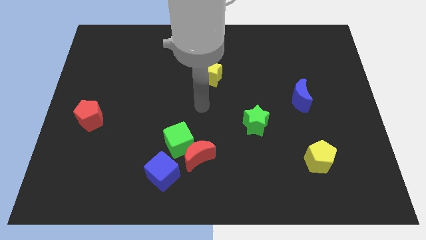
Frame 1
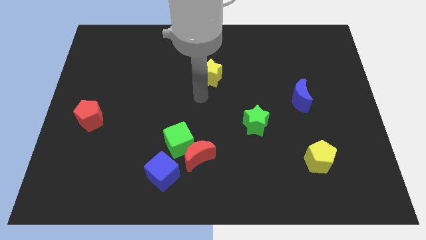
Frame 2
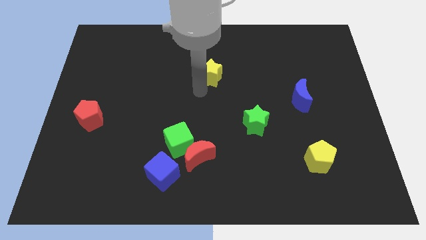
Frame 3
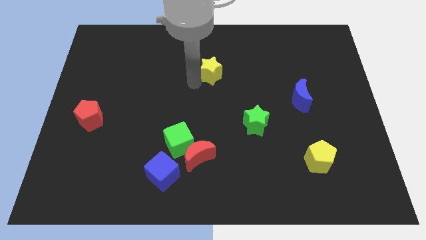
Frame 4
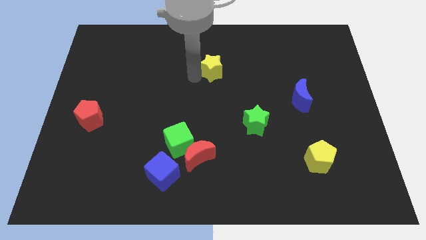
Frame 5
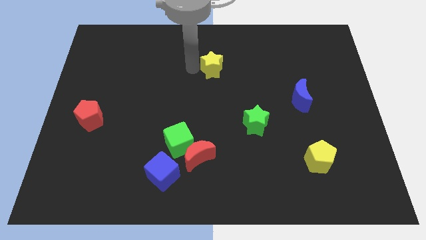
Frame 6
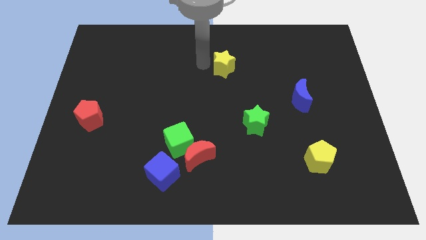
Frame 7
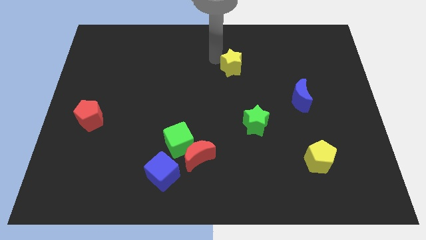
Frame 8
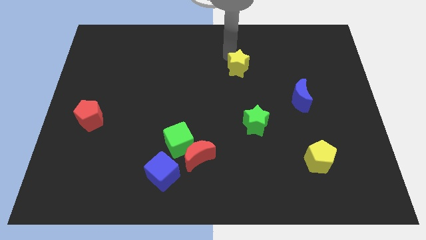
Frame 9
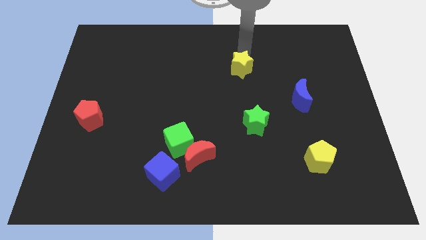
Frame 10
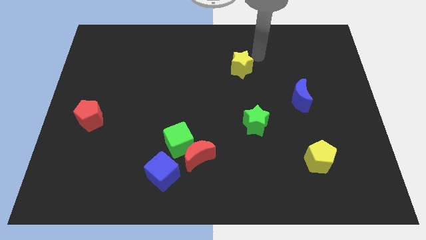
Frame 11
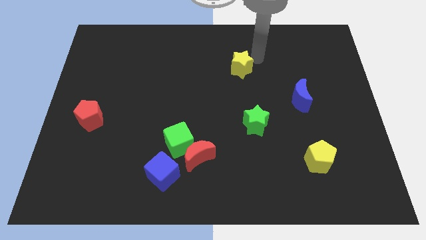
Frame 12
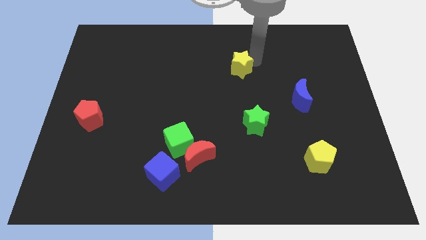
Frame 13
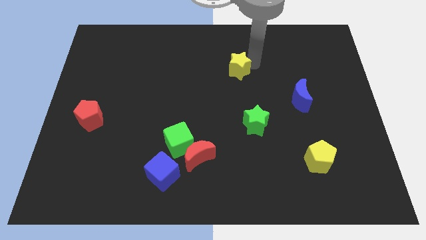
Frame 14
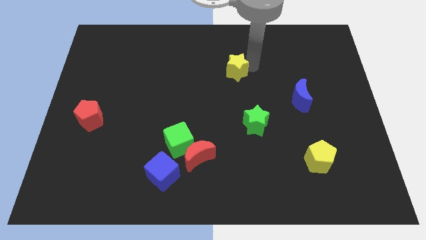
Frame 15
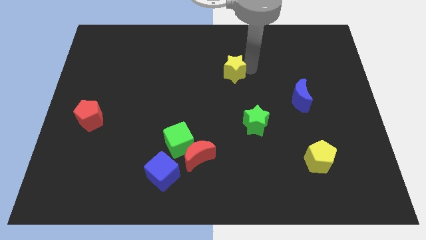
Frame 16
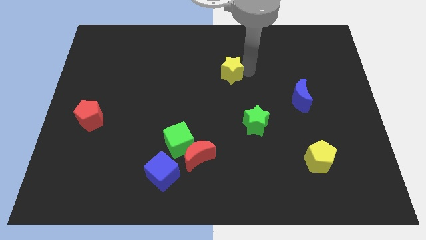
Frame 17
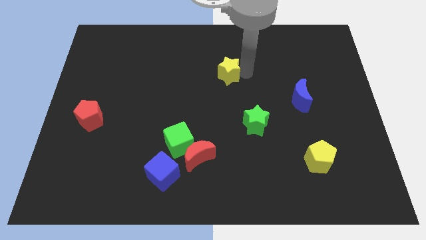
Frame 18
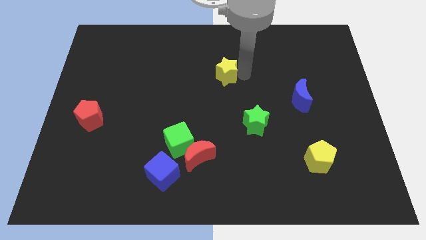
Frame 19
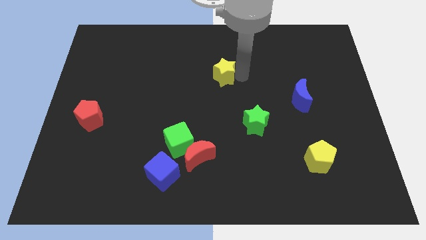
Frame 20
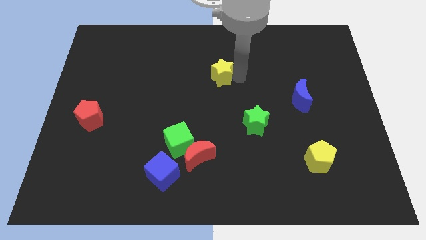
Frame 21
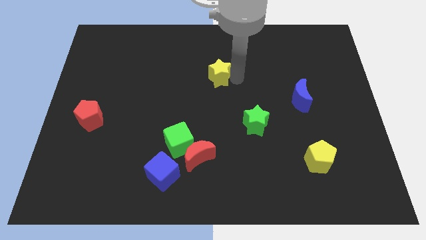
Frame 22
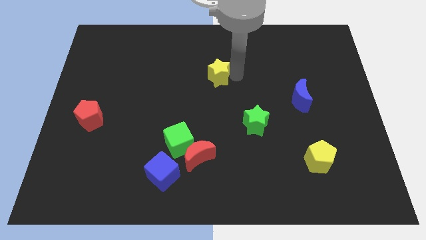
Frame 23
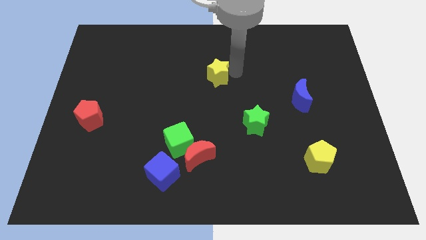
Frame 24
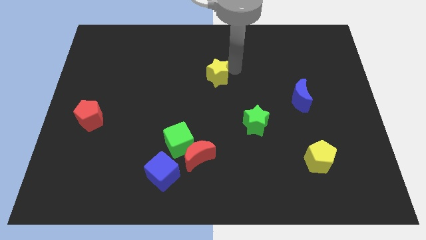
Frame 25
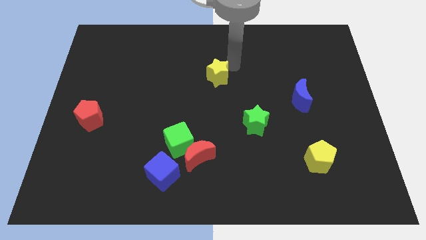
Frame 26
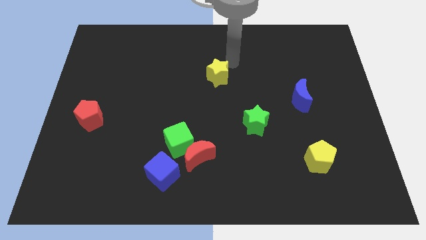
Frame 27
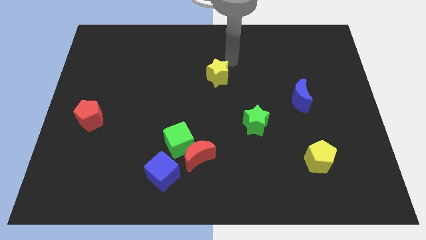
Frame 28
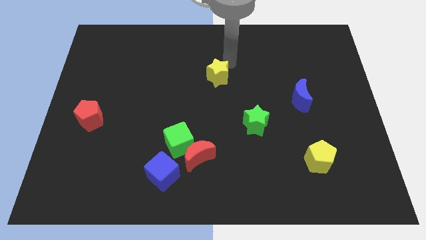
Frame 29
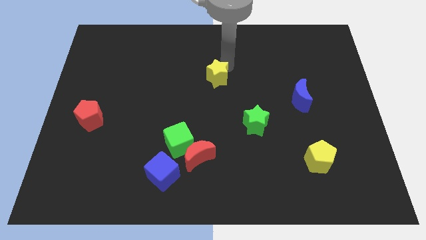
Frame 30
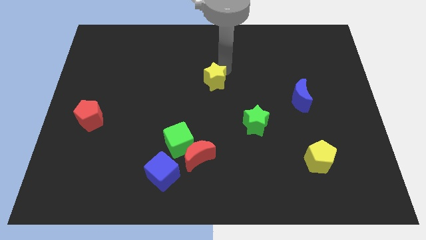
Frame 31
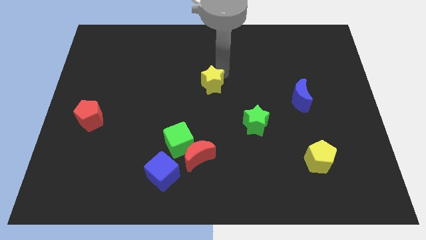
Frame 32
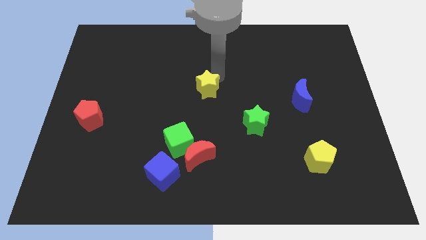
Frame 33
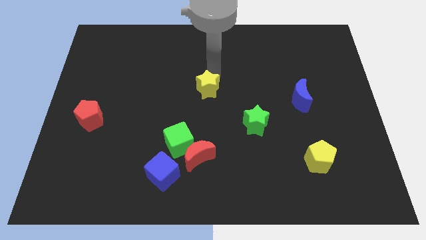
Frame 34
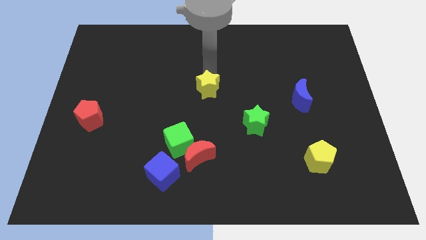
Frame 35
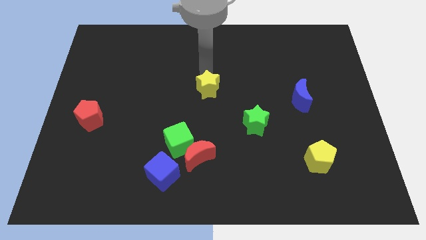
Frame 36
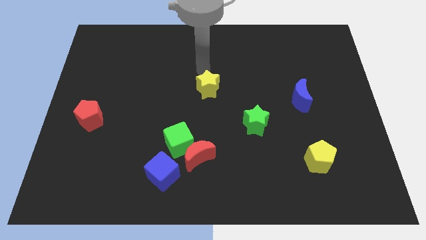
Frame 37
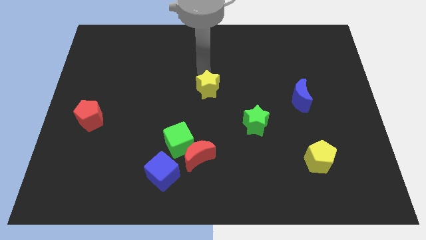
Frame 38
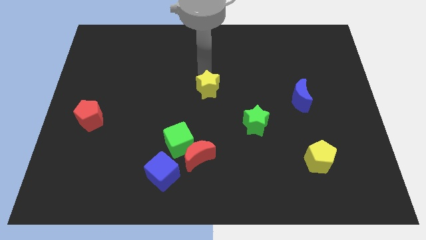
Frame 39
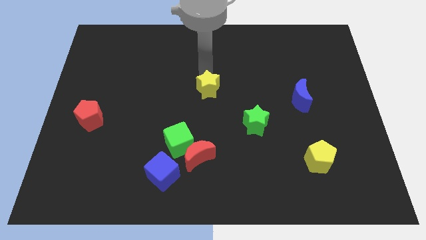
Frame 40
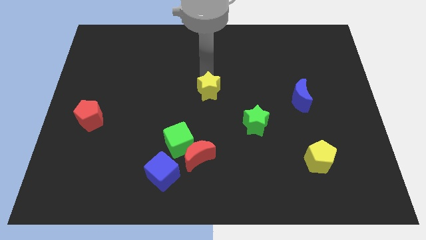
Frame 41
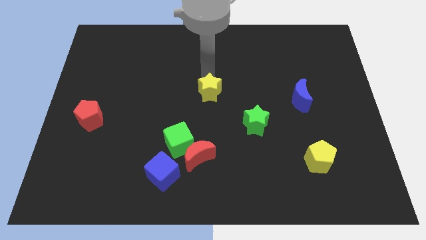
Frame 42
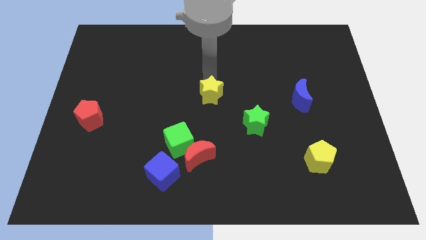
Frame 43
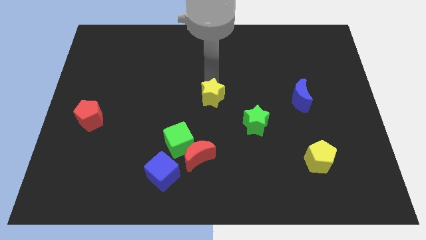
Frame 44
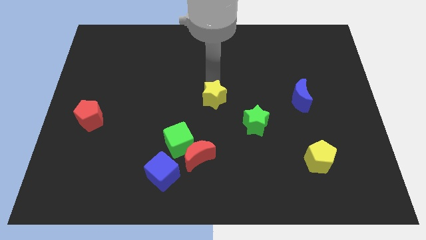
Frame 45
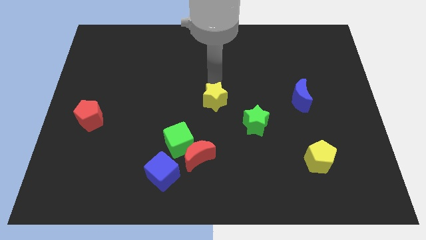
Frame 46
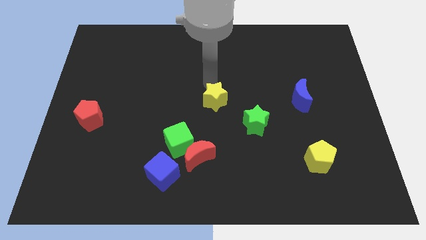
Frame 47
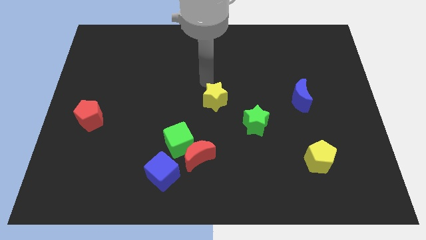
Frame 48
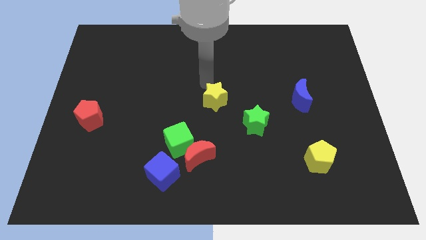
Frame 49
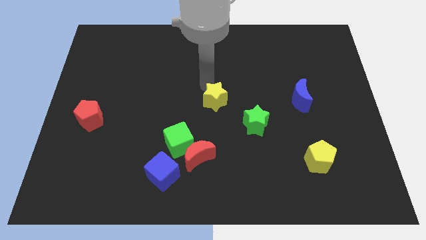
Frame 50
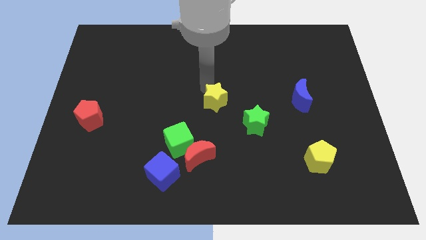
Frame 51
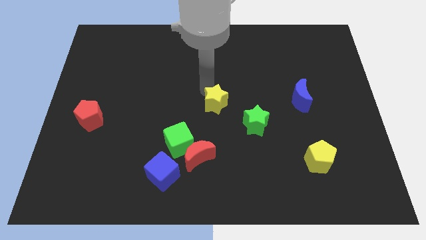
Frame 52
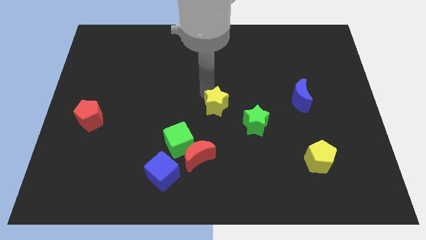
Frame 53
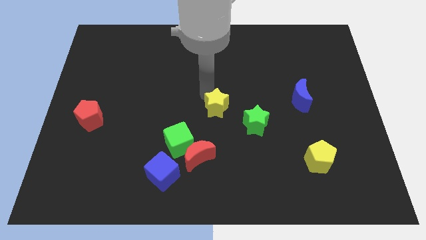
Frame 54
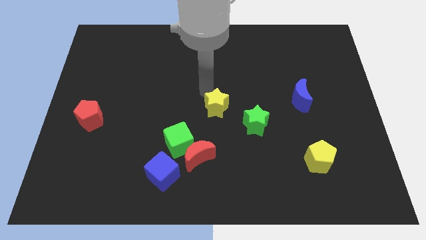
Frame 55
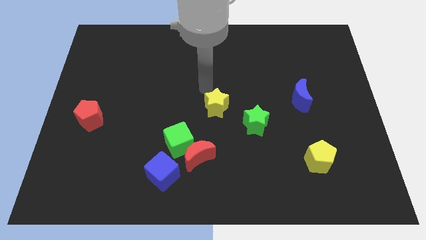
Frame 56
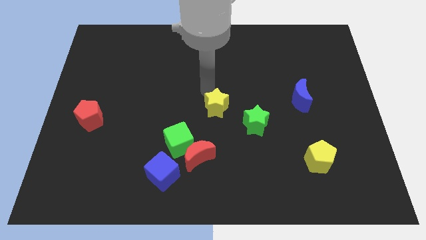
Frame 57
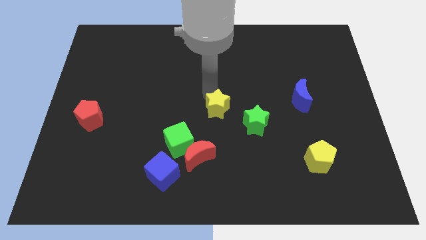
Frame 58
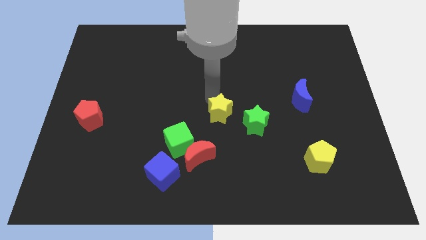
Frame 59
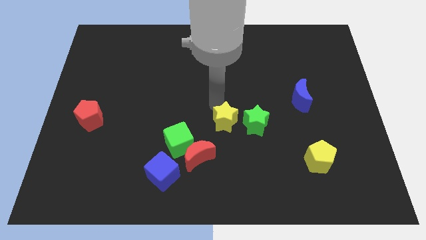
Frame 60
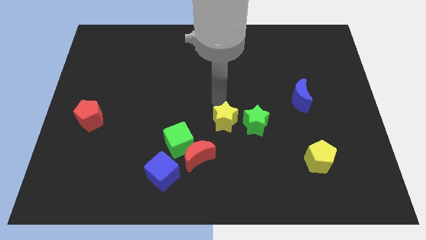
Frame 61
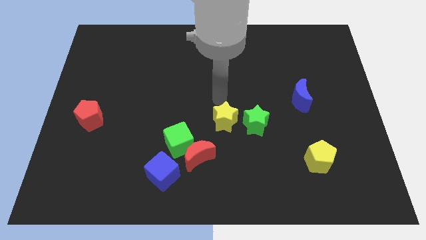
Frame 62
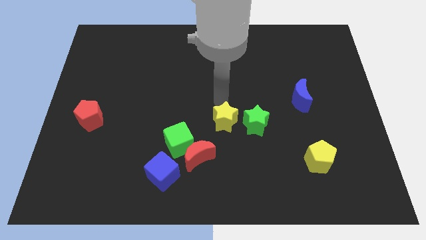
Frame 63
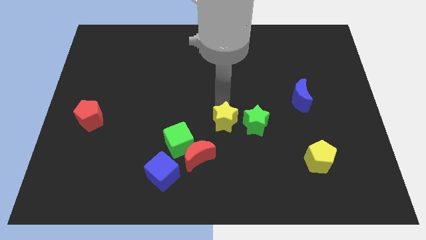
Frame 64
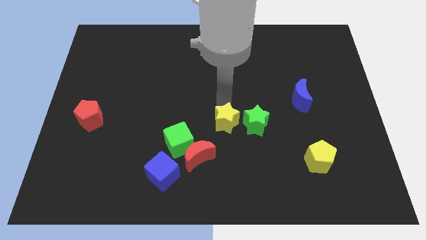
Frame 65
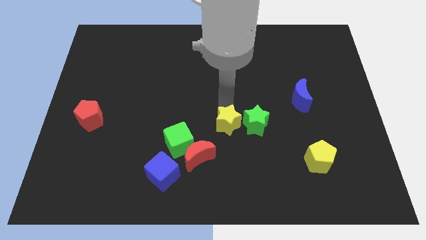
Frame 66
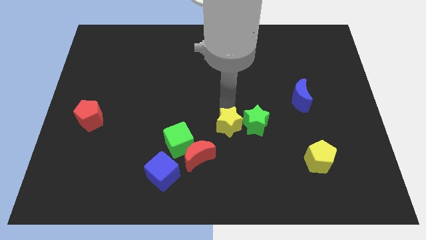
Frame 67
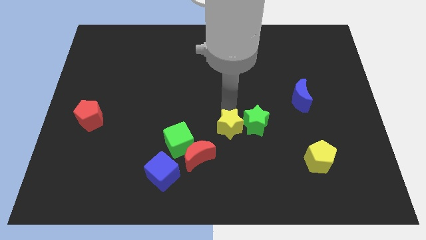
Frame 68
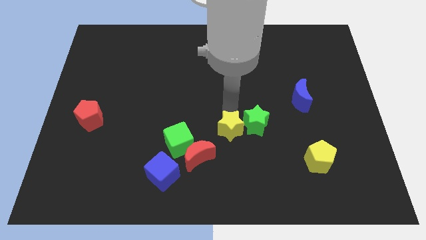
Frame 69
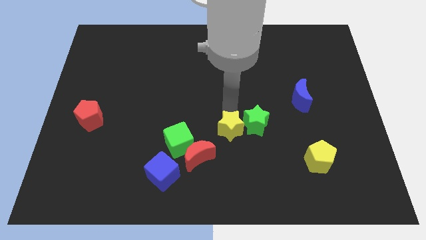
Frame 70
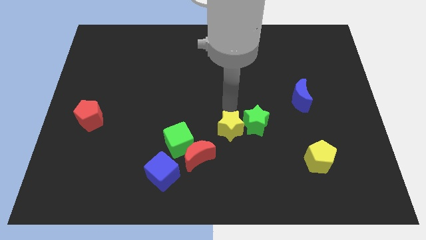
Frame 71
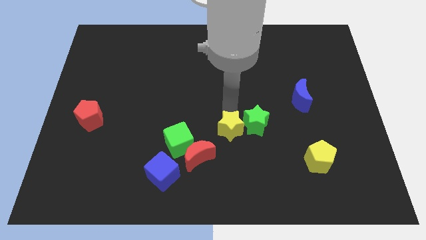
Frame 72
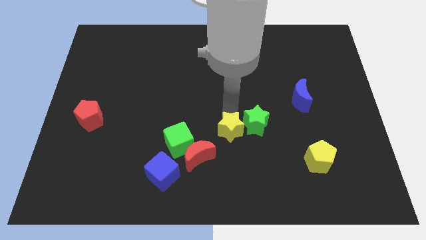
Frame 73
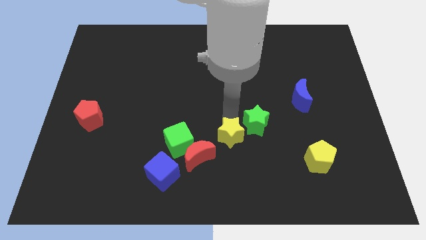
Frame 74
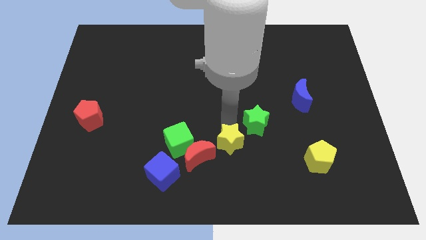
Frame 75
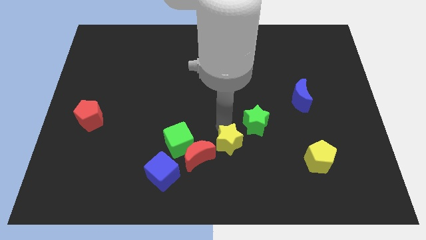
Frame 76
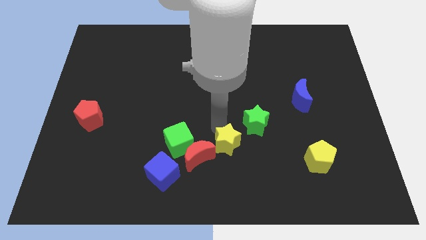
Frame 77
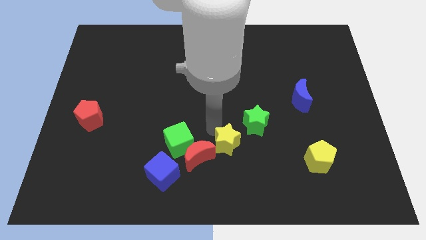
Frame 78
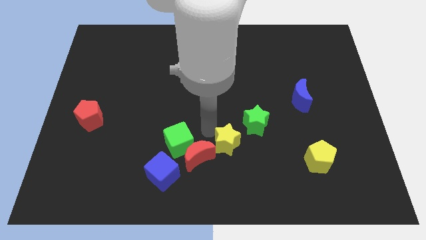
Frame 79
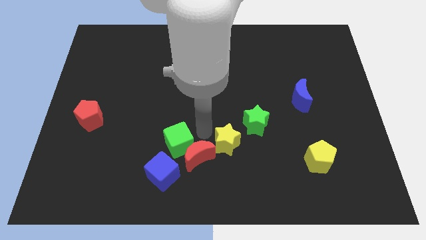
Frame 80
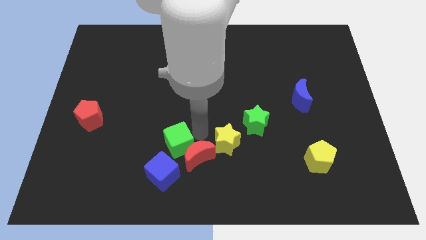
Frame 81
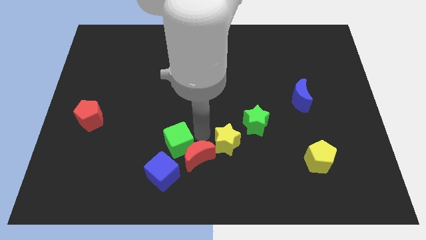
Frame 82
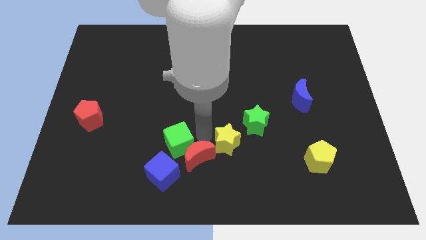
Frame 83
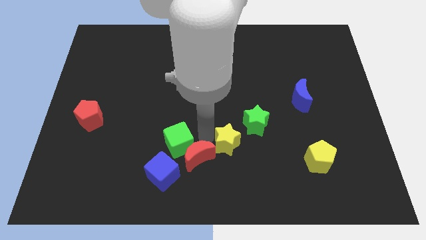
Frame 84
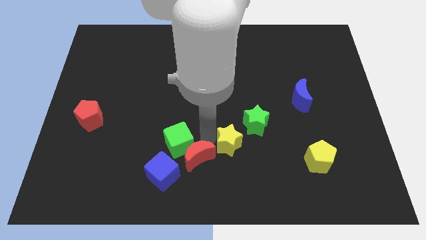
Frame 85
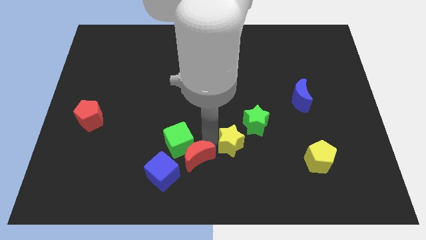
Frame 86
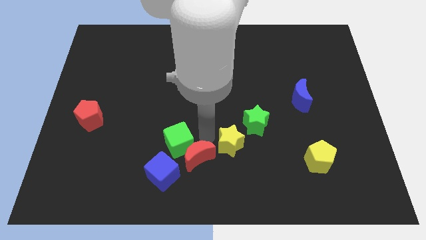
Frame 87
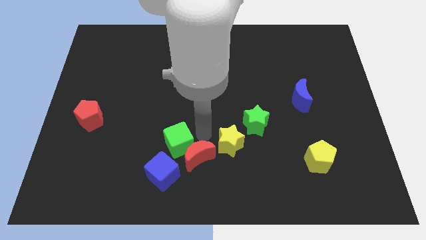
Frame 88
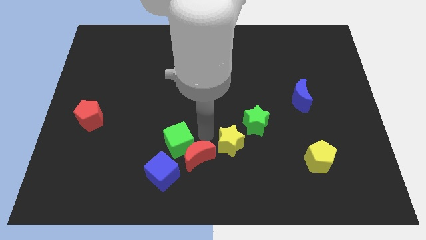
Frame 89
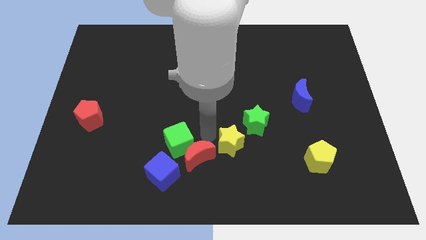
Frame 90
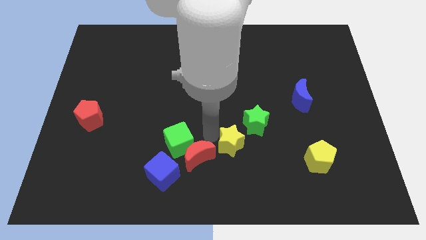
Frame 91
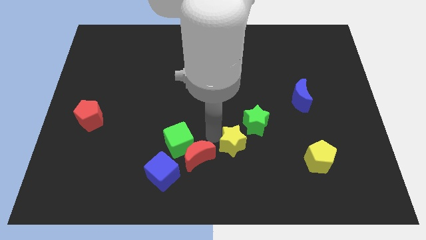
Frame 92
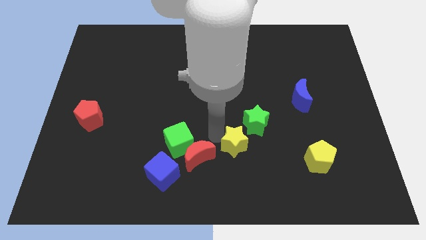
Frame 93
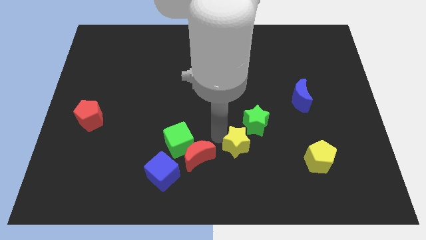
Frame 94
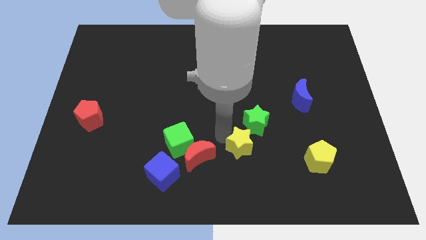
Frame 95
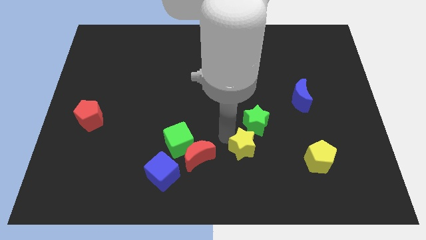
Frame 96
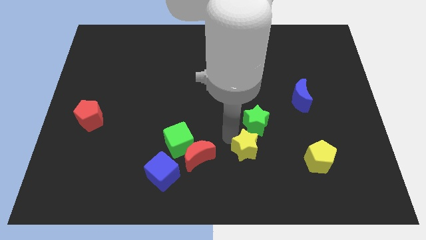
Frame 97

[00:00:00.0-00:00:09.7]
slide the yellow star left of the yellow pentagon
